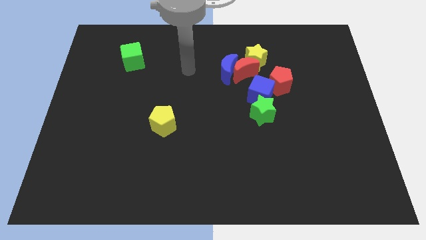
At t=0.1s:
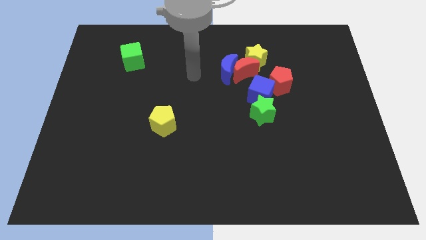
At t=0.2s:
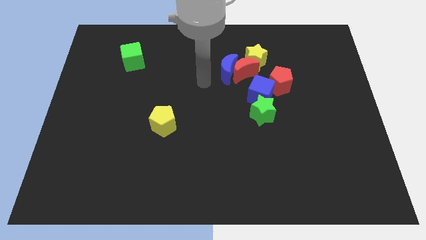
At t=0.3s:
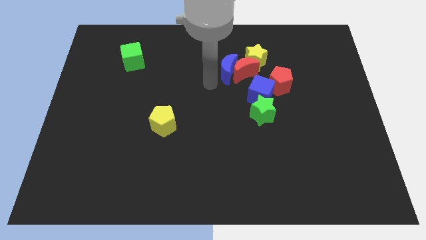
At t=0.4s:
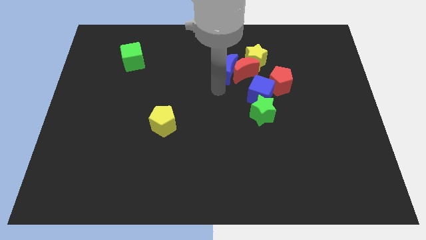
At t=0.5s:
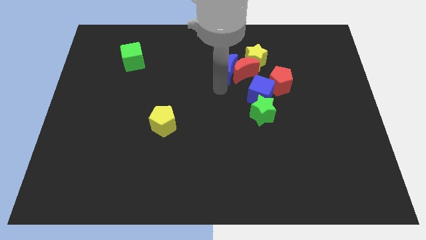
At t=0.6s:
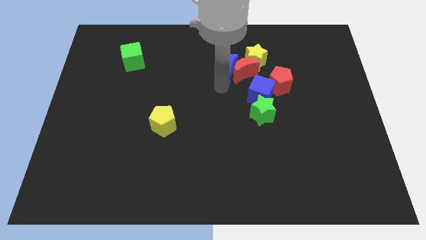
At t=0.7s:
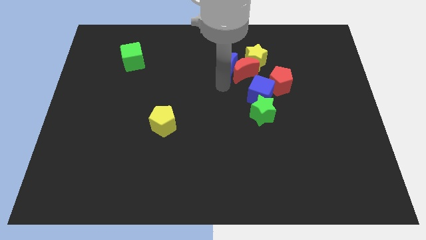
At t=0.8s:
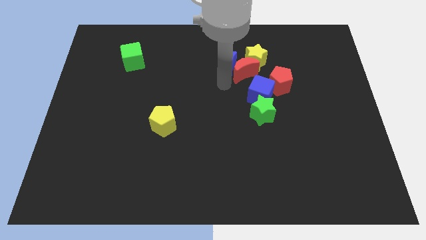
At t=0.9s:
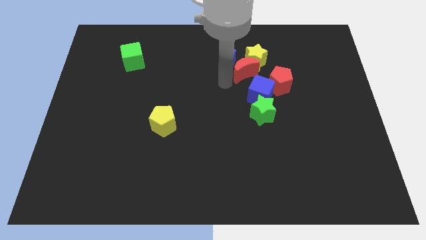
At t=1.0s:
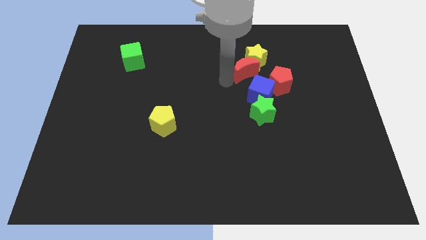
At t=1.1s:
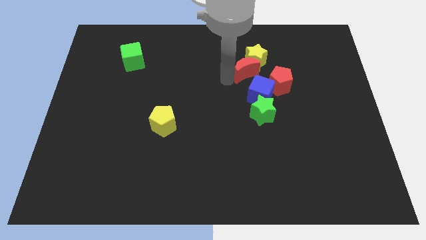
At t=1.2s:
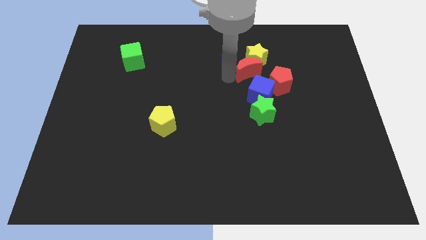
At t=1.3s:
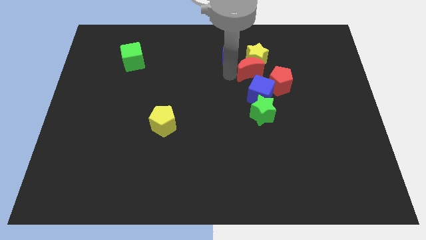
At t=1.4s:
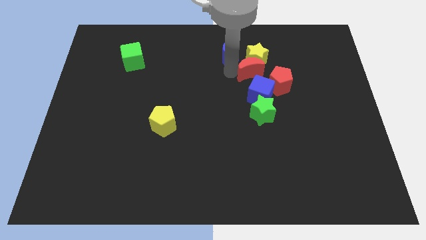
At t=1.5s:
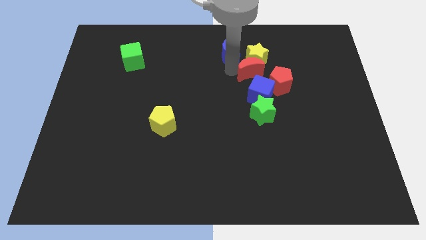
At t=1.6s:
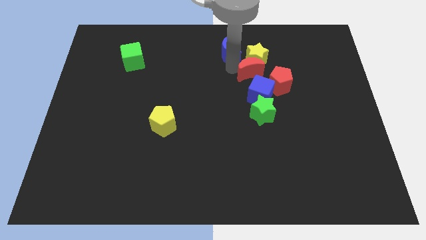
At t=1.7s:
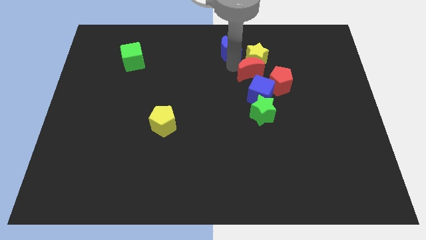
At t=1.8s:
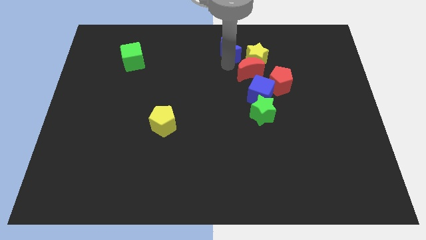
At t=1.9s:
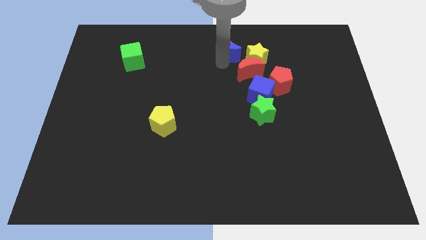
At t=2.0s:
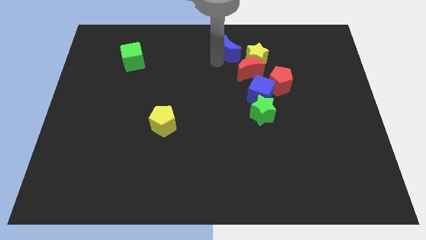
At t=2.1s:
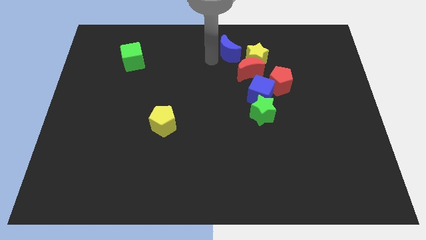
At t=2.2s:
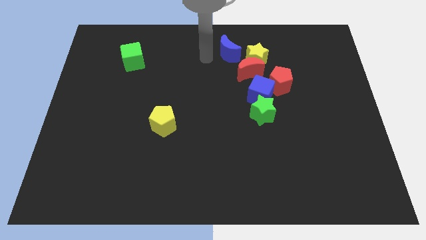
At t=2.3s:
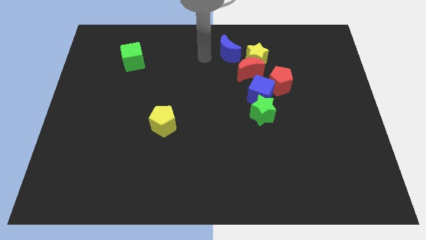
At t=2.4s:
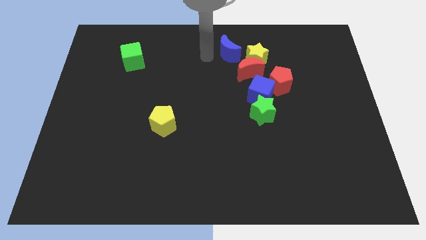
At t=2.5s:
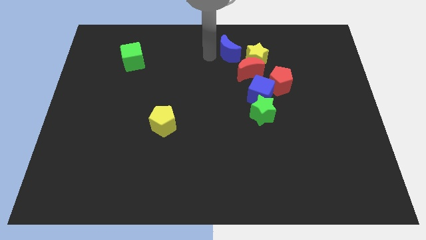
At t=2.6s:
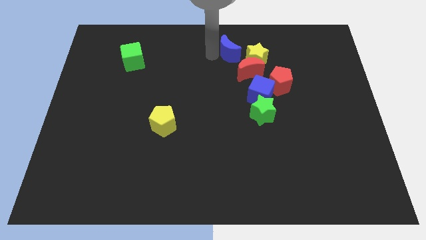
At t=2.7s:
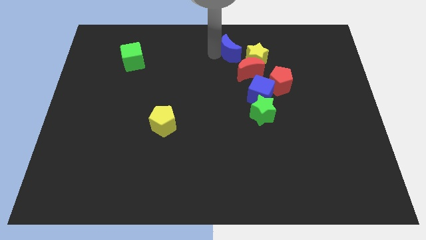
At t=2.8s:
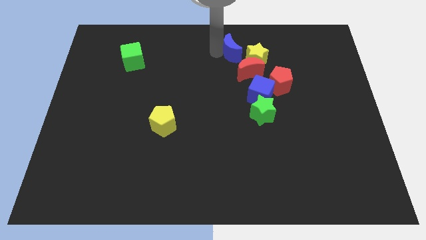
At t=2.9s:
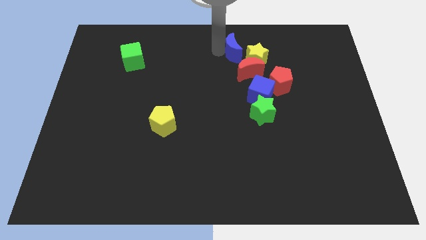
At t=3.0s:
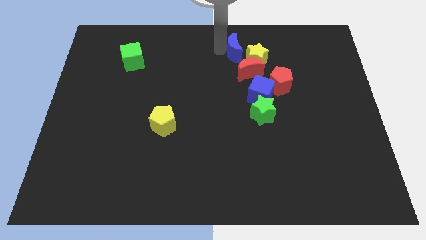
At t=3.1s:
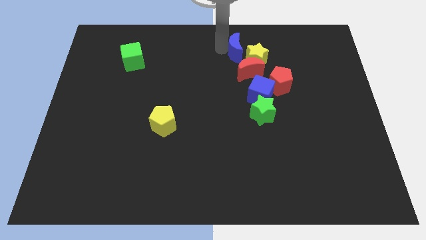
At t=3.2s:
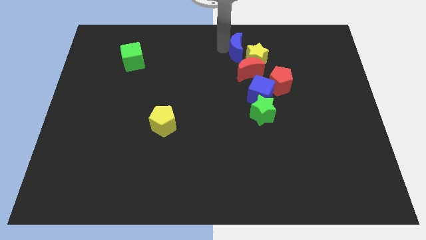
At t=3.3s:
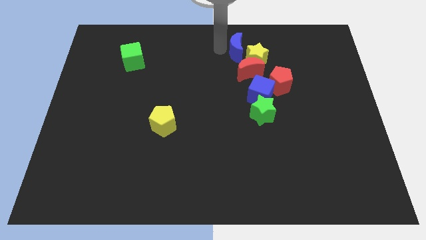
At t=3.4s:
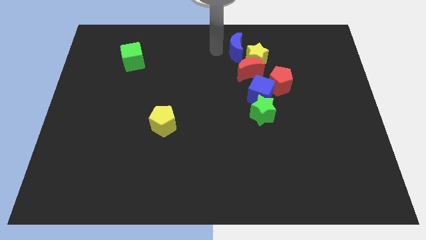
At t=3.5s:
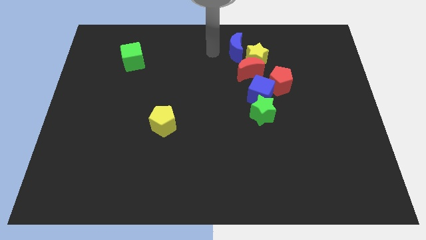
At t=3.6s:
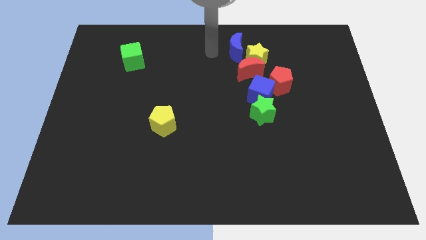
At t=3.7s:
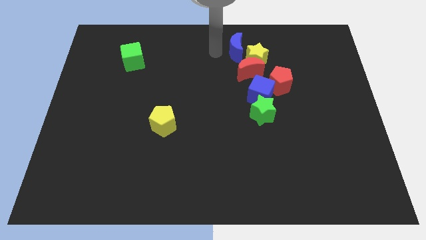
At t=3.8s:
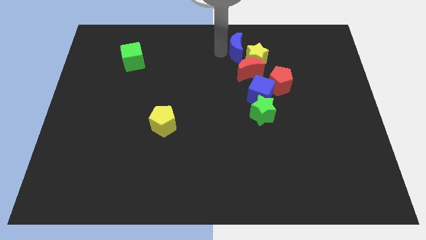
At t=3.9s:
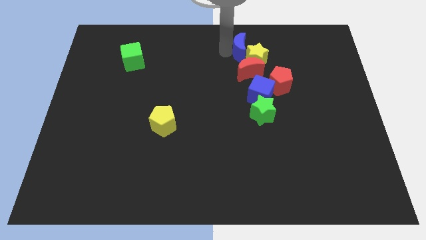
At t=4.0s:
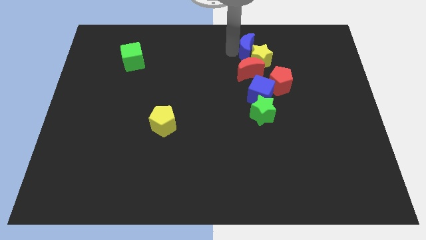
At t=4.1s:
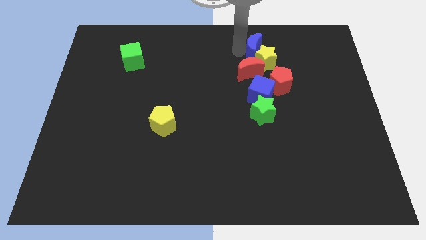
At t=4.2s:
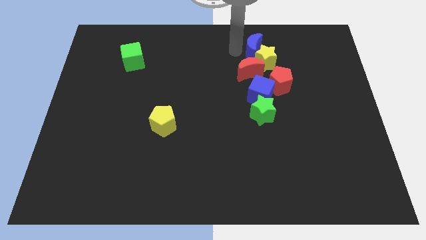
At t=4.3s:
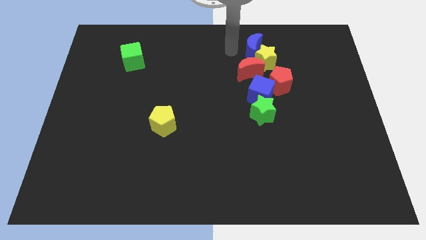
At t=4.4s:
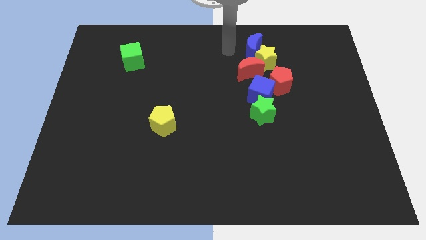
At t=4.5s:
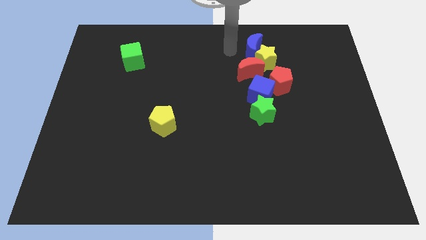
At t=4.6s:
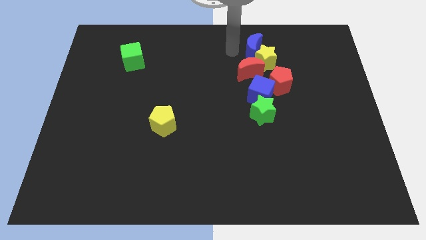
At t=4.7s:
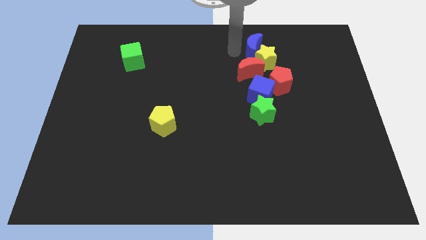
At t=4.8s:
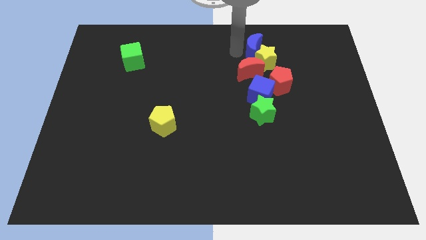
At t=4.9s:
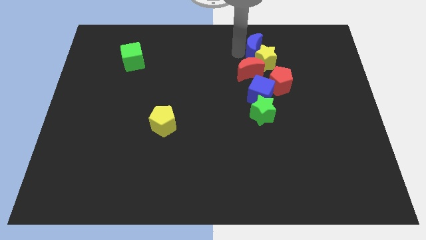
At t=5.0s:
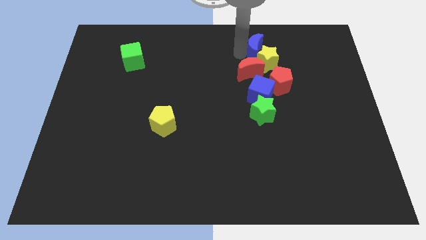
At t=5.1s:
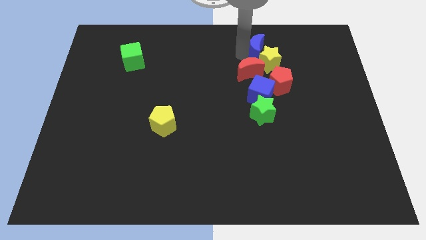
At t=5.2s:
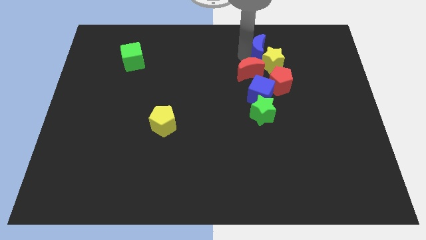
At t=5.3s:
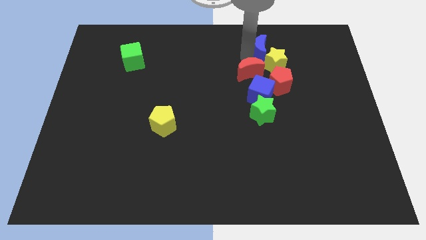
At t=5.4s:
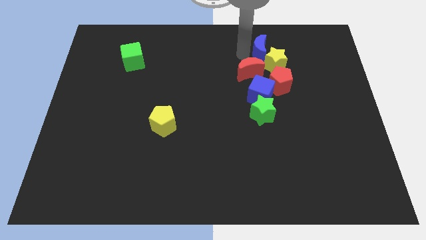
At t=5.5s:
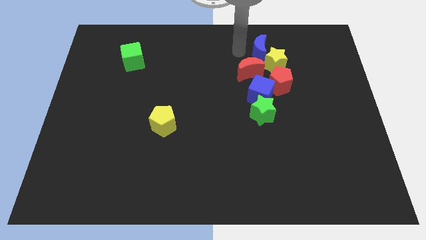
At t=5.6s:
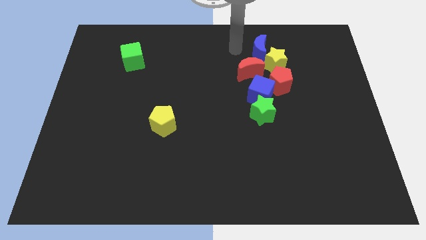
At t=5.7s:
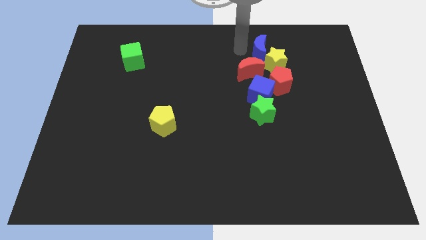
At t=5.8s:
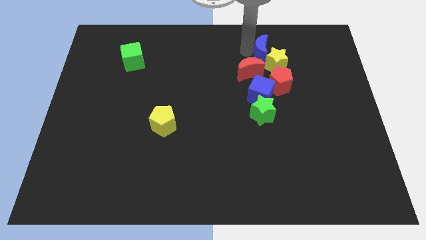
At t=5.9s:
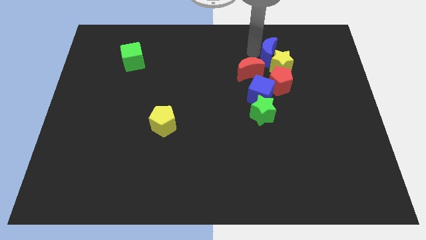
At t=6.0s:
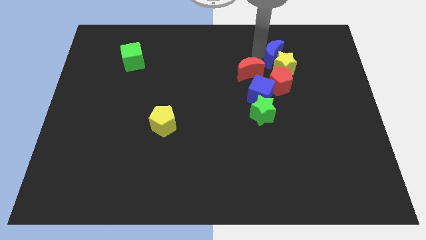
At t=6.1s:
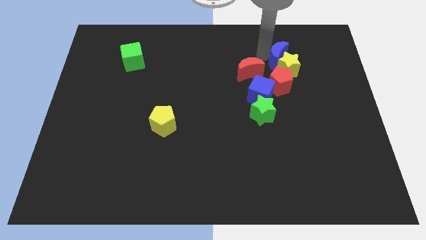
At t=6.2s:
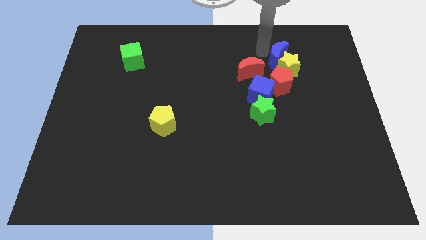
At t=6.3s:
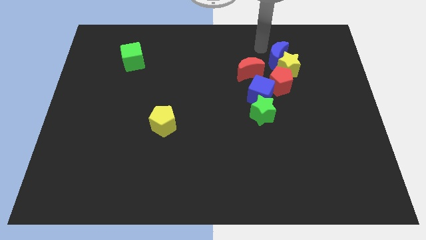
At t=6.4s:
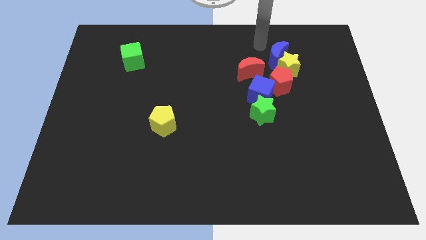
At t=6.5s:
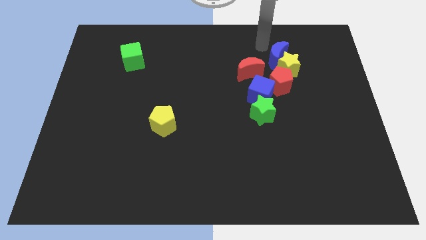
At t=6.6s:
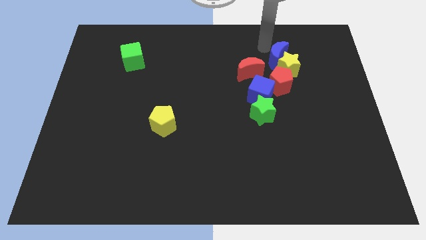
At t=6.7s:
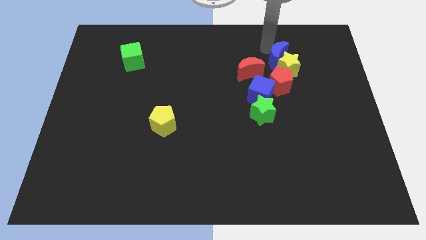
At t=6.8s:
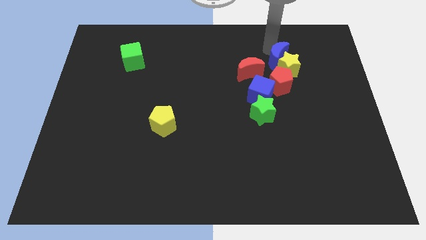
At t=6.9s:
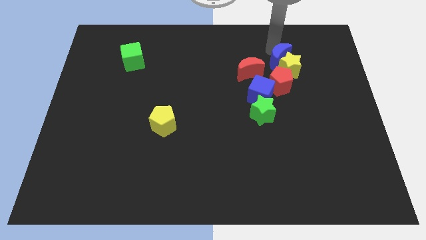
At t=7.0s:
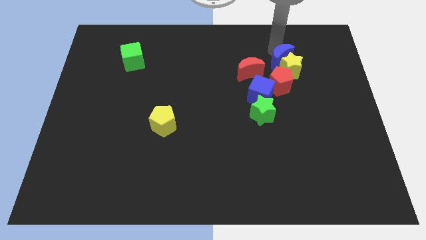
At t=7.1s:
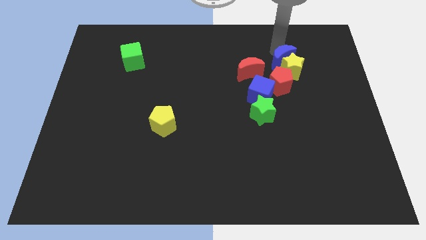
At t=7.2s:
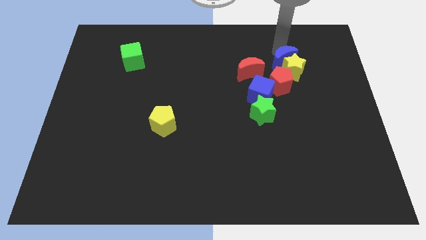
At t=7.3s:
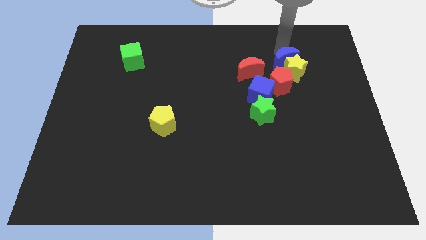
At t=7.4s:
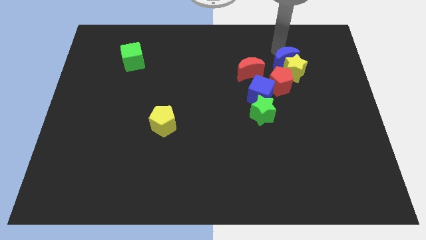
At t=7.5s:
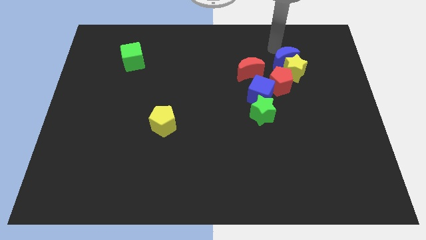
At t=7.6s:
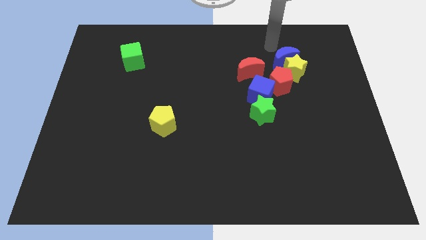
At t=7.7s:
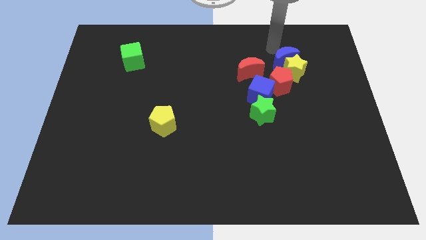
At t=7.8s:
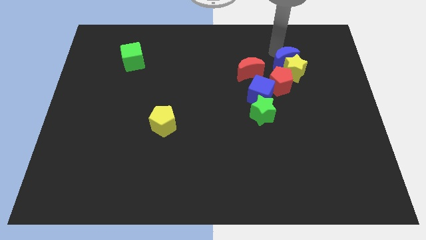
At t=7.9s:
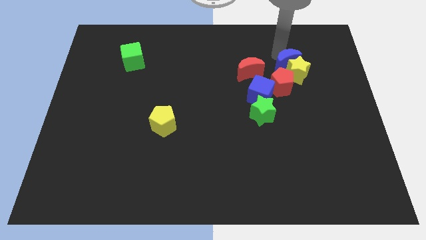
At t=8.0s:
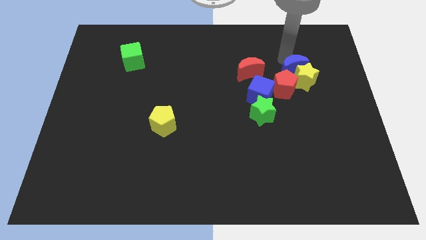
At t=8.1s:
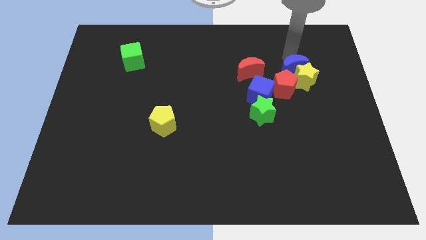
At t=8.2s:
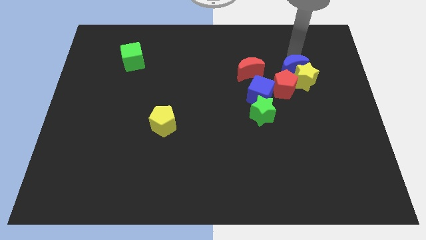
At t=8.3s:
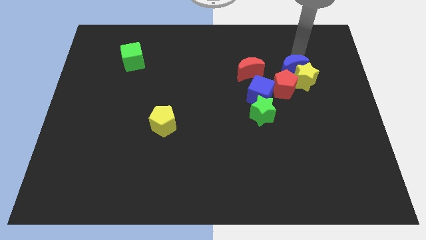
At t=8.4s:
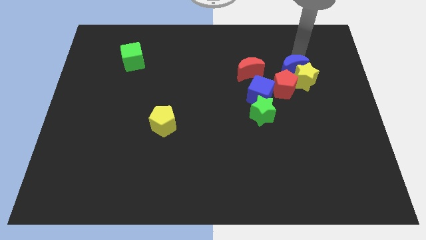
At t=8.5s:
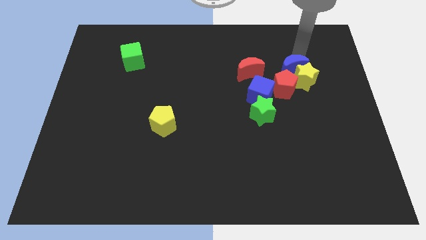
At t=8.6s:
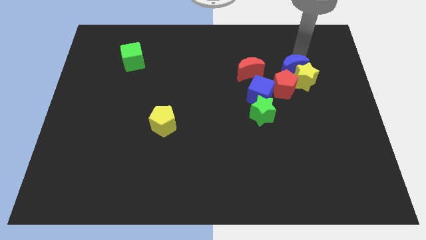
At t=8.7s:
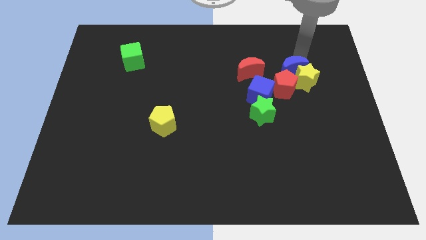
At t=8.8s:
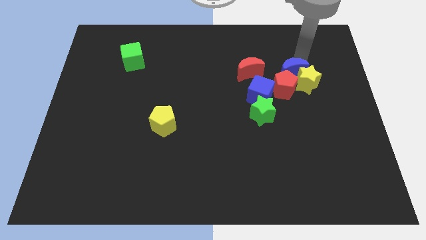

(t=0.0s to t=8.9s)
put the blue moon next to the red pentagon
